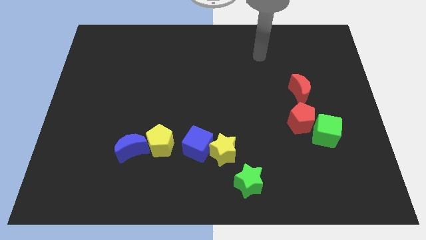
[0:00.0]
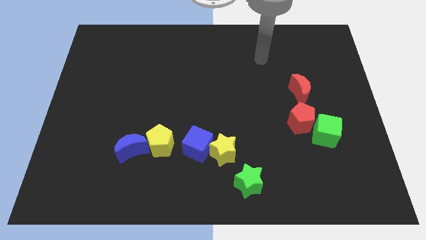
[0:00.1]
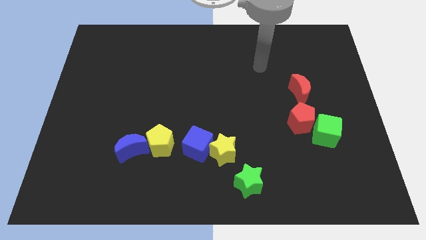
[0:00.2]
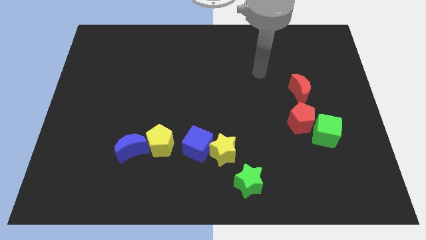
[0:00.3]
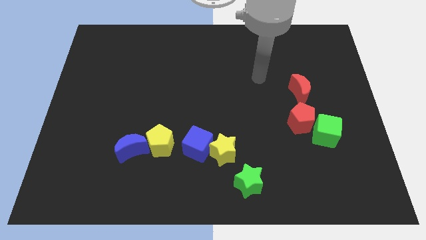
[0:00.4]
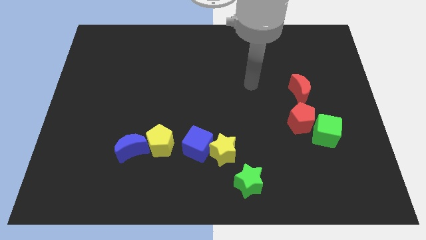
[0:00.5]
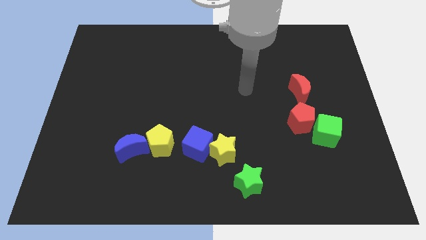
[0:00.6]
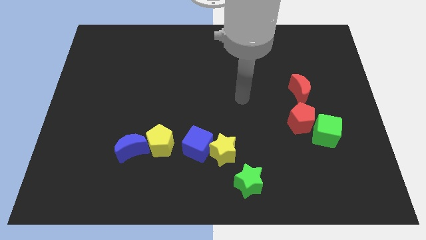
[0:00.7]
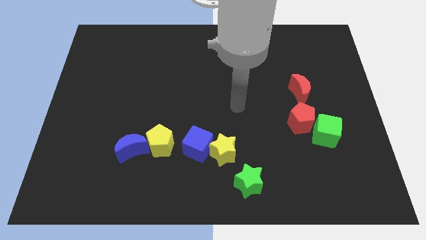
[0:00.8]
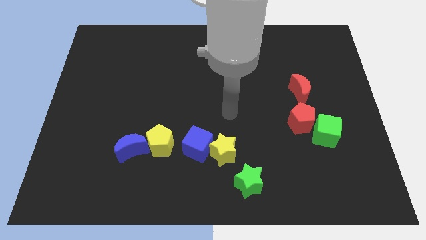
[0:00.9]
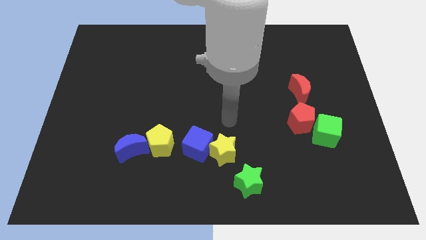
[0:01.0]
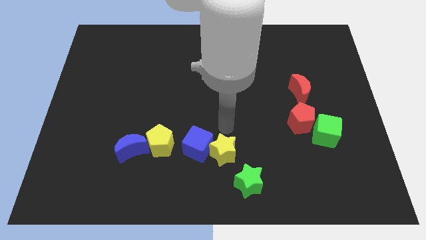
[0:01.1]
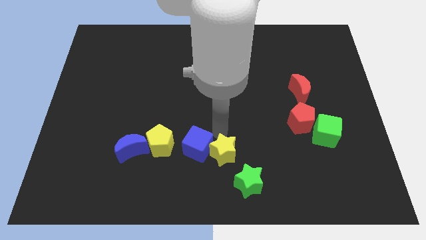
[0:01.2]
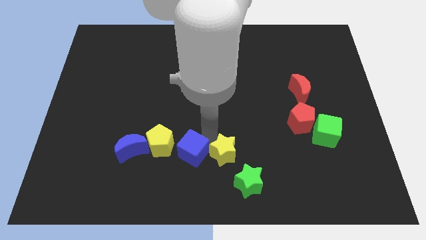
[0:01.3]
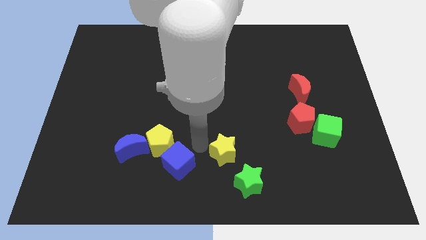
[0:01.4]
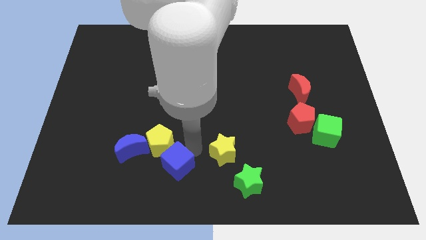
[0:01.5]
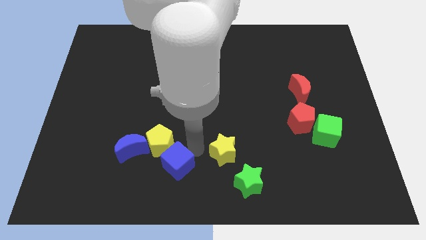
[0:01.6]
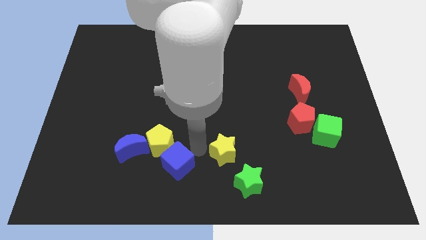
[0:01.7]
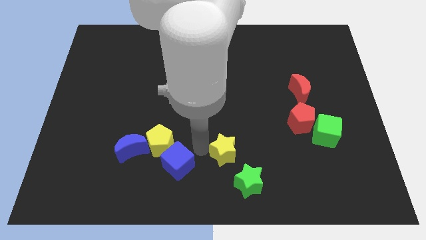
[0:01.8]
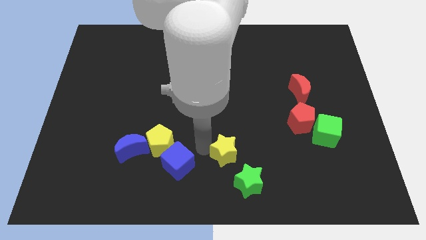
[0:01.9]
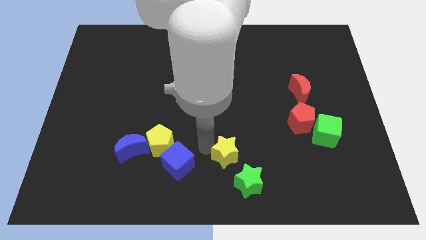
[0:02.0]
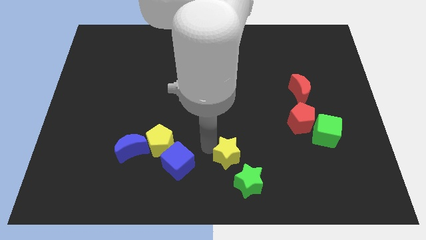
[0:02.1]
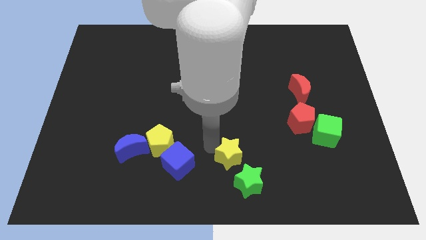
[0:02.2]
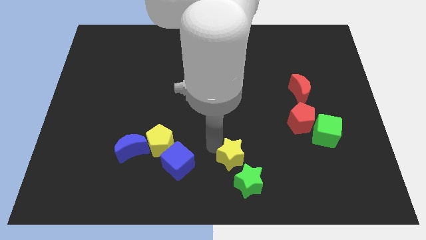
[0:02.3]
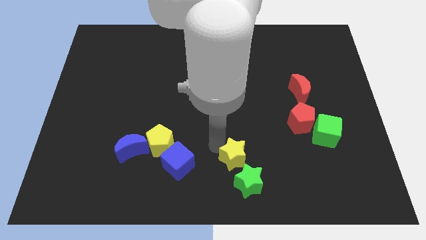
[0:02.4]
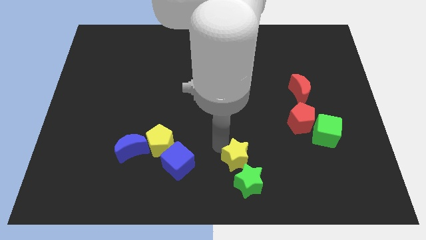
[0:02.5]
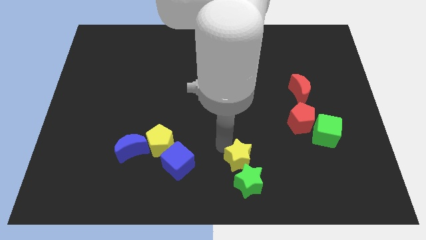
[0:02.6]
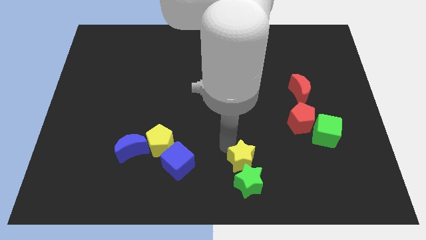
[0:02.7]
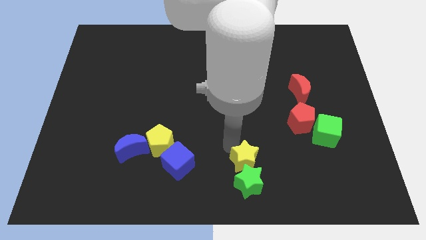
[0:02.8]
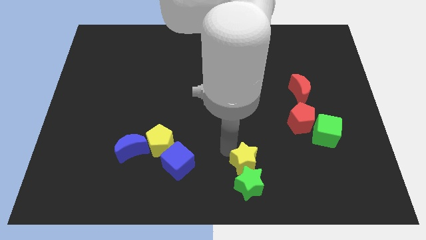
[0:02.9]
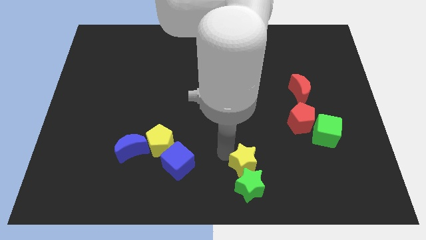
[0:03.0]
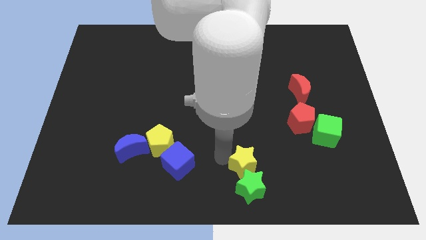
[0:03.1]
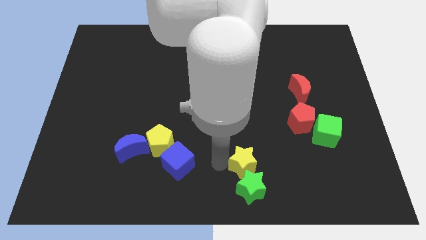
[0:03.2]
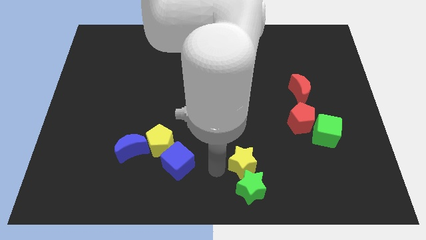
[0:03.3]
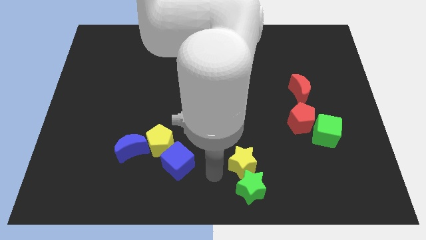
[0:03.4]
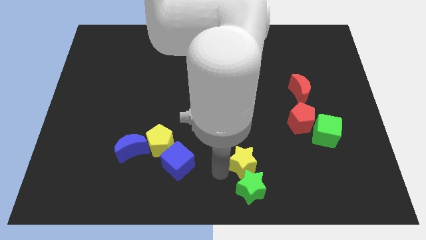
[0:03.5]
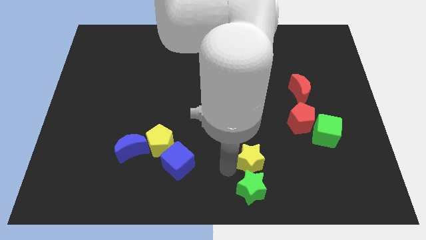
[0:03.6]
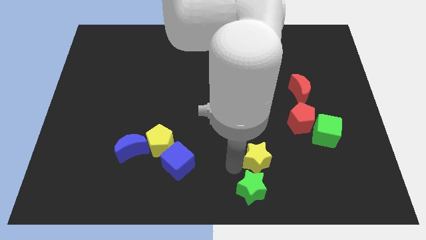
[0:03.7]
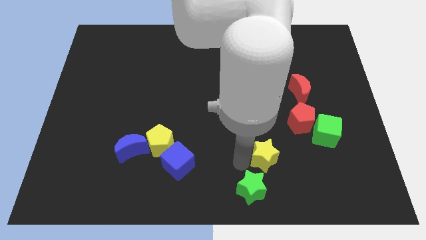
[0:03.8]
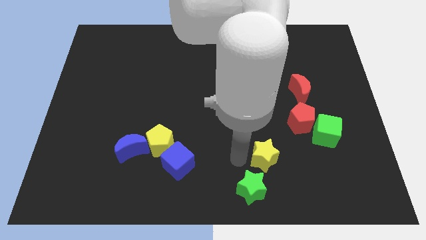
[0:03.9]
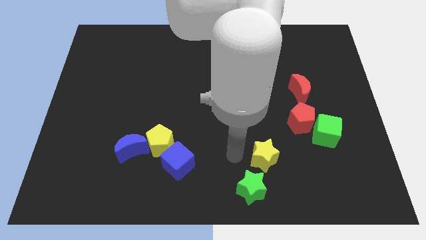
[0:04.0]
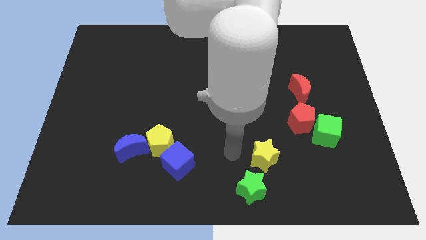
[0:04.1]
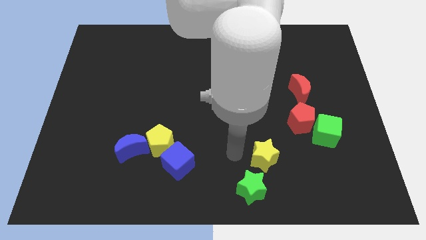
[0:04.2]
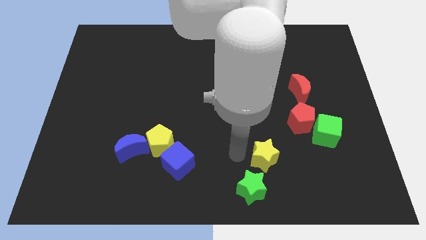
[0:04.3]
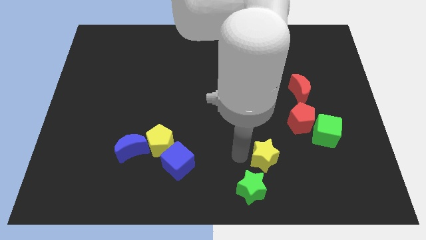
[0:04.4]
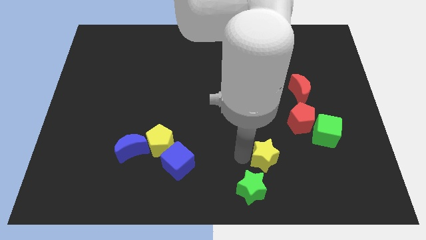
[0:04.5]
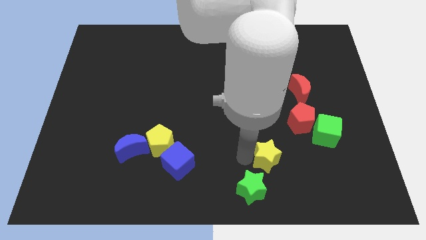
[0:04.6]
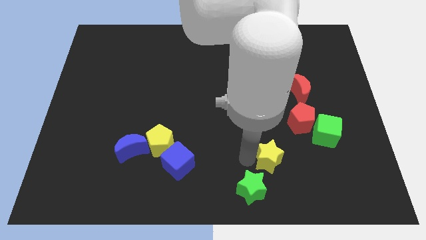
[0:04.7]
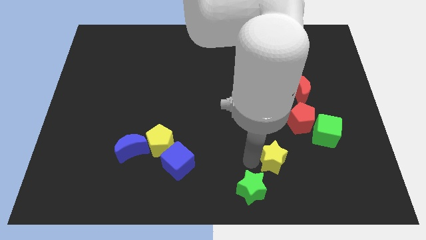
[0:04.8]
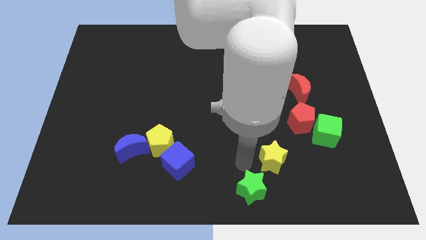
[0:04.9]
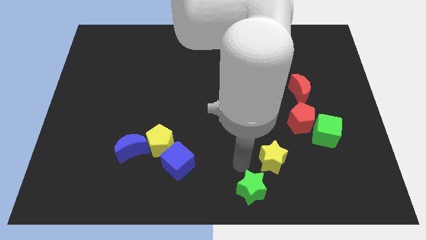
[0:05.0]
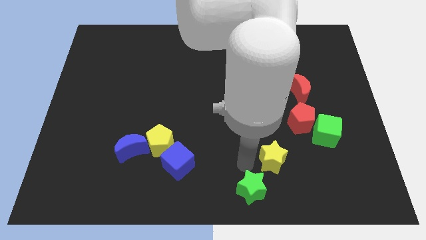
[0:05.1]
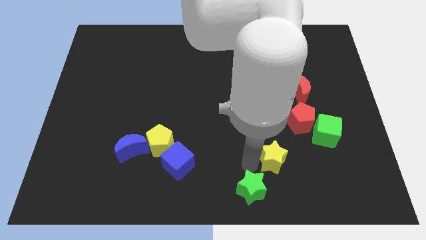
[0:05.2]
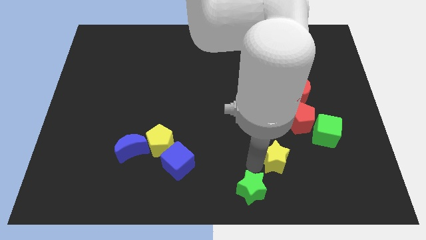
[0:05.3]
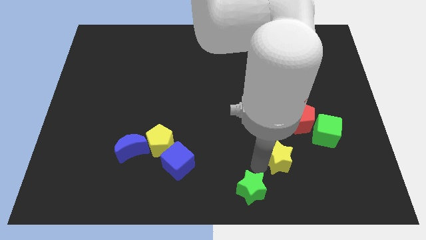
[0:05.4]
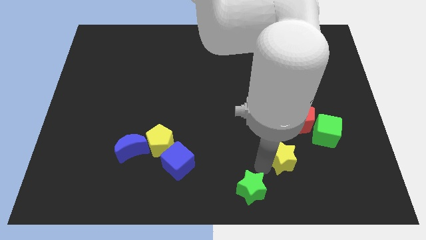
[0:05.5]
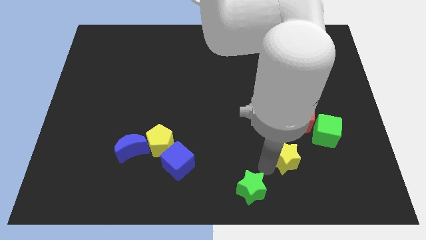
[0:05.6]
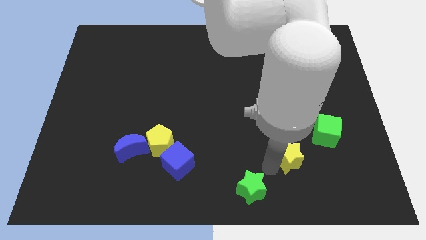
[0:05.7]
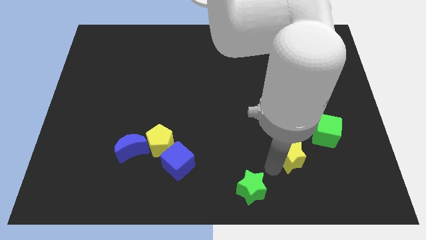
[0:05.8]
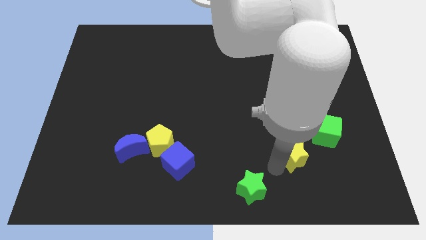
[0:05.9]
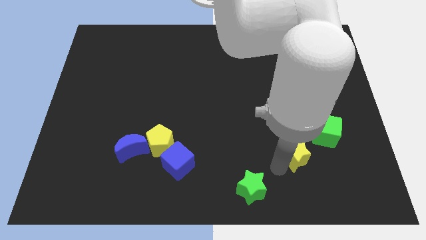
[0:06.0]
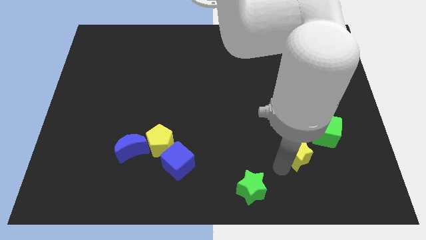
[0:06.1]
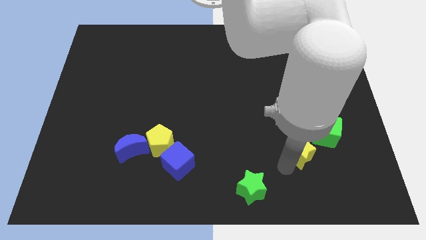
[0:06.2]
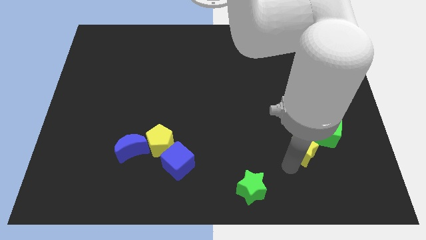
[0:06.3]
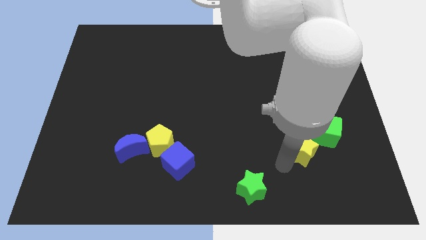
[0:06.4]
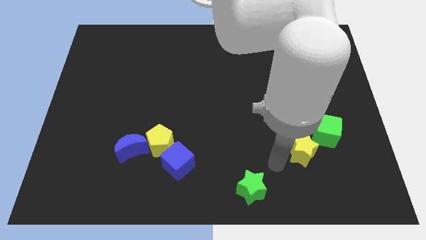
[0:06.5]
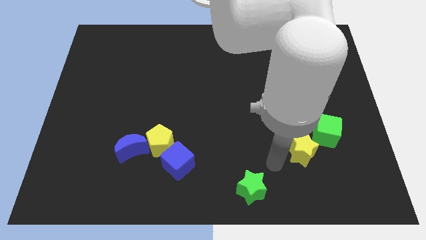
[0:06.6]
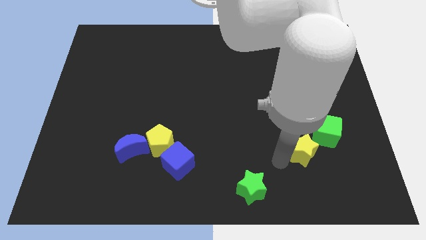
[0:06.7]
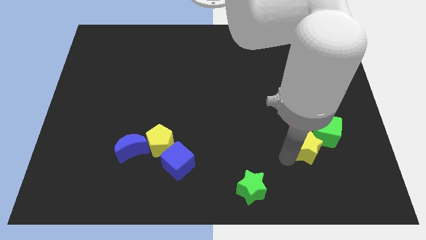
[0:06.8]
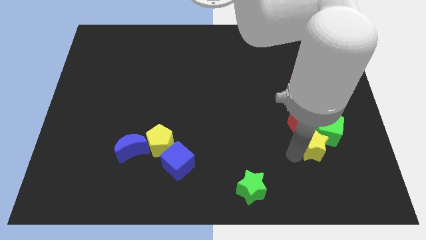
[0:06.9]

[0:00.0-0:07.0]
slide the yellow star to the bottom right side of the red pentagon

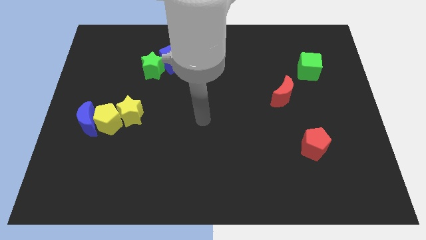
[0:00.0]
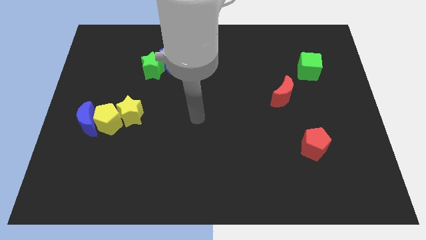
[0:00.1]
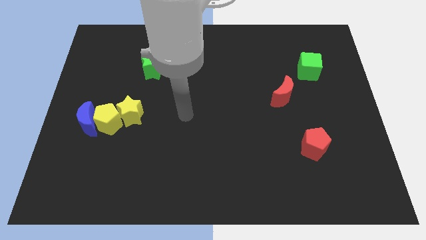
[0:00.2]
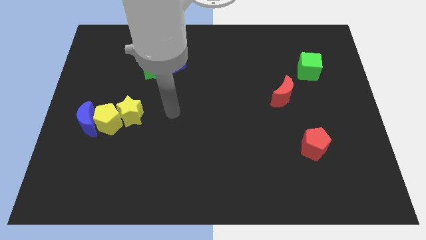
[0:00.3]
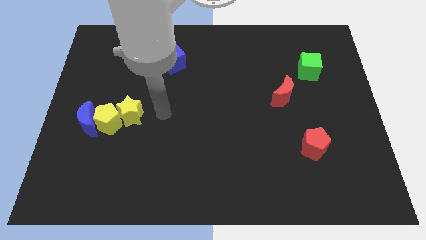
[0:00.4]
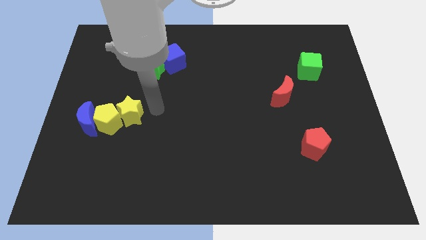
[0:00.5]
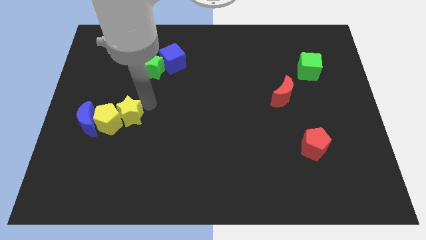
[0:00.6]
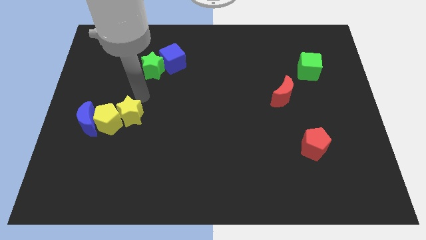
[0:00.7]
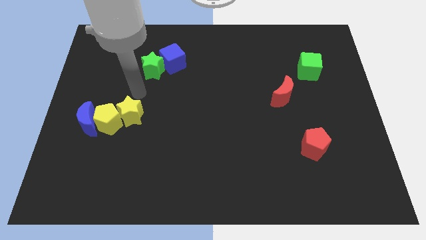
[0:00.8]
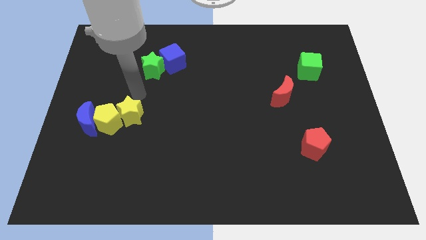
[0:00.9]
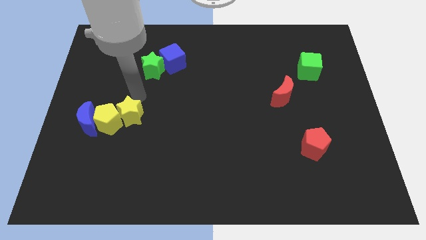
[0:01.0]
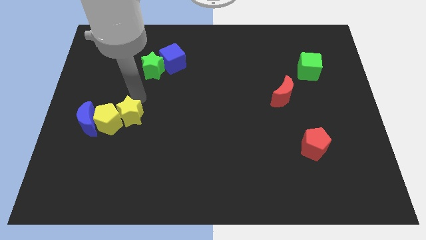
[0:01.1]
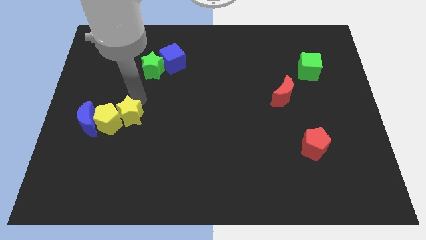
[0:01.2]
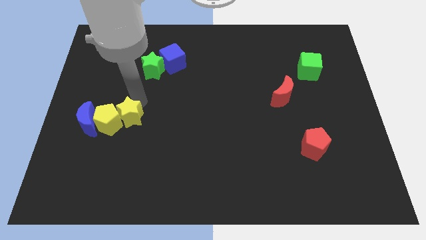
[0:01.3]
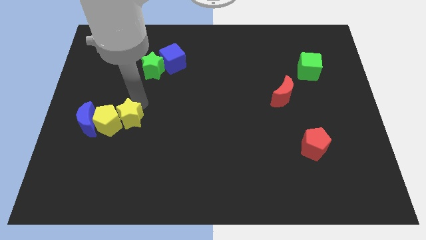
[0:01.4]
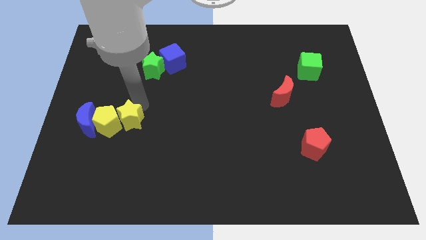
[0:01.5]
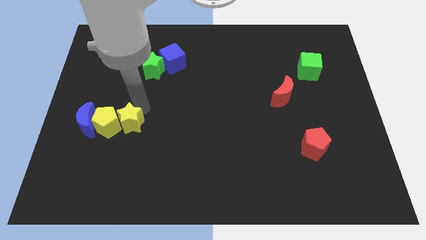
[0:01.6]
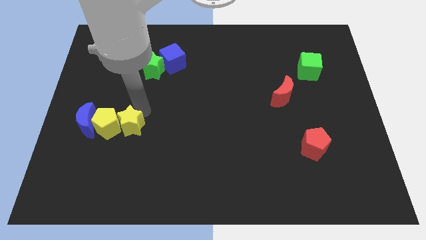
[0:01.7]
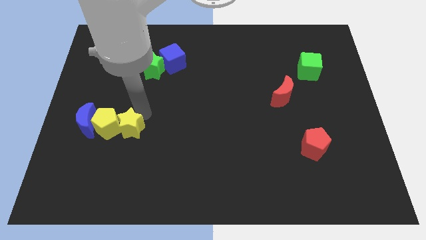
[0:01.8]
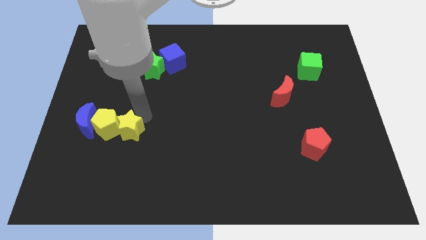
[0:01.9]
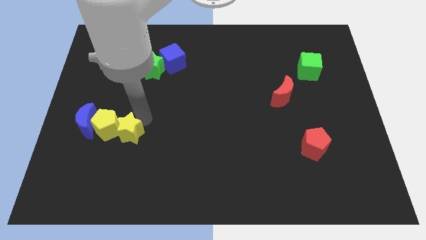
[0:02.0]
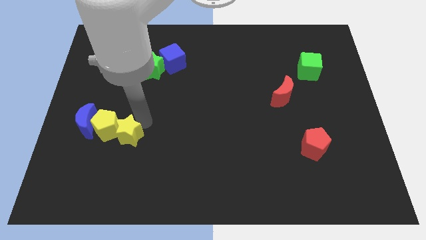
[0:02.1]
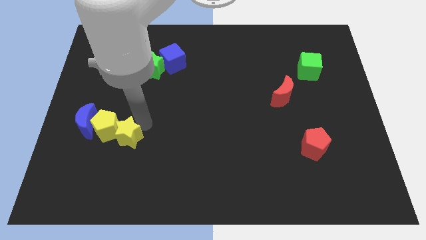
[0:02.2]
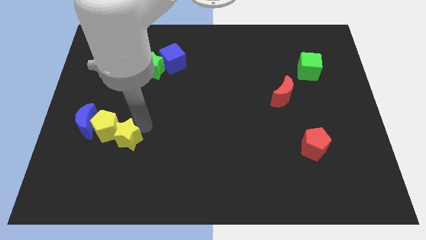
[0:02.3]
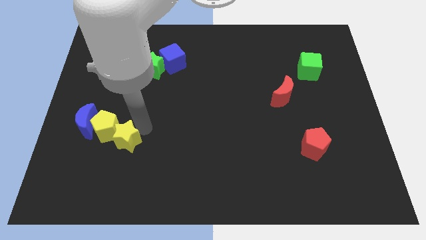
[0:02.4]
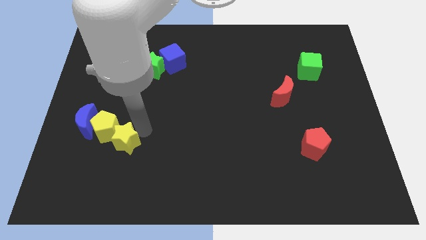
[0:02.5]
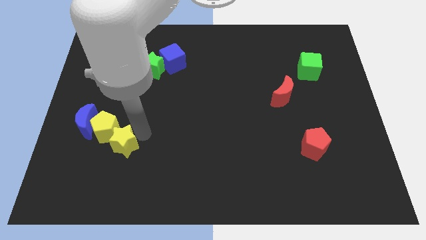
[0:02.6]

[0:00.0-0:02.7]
put the yellow star to the bottom side of the yellow pentagon
